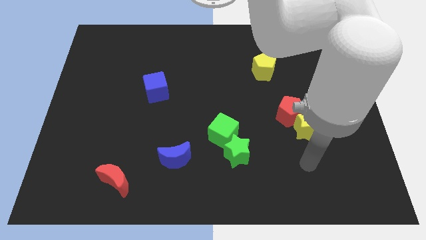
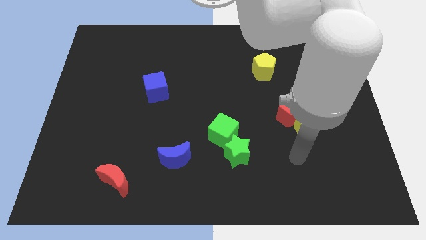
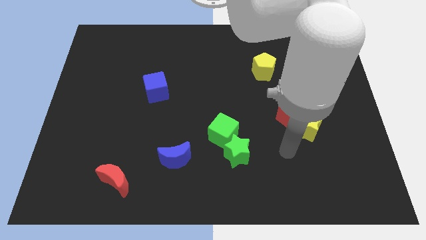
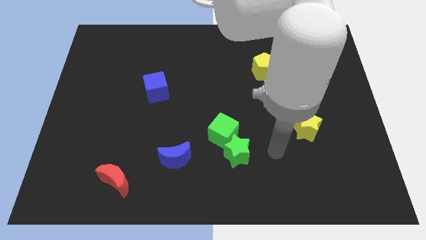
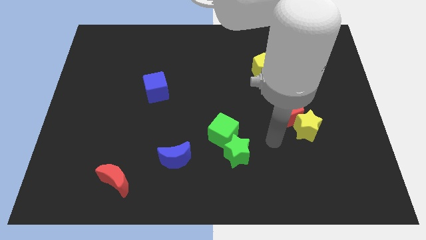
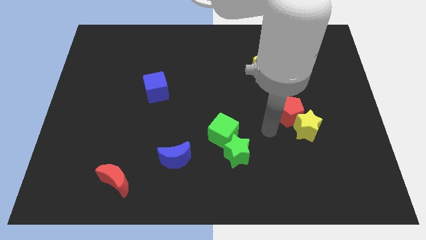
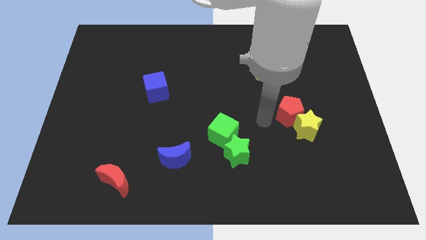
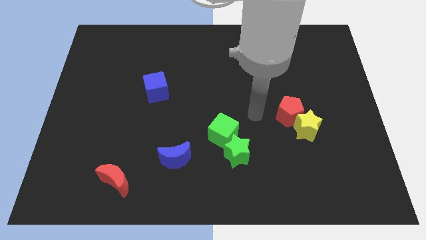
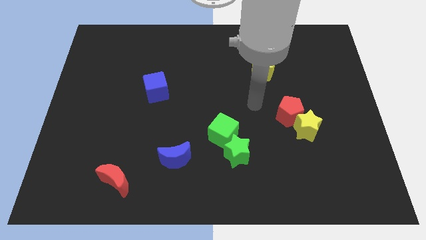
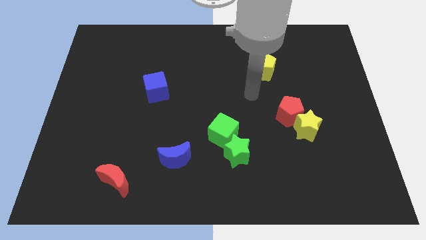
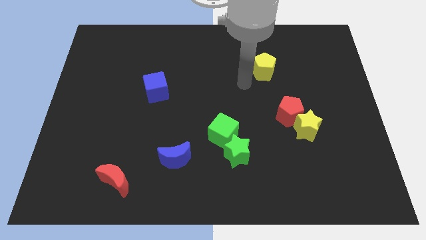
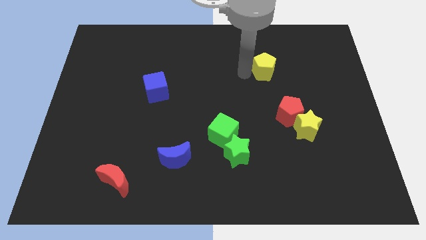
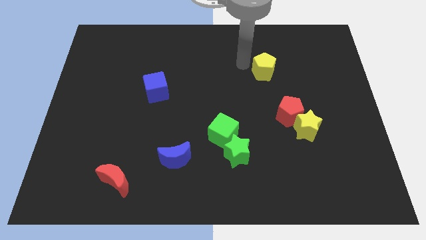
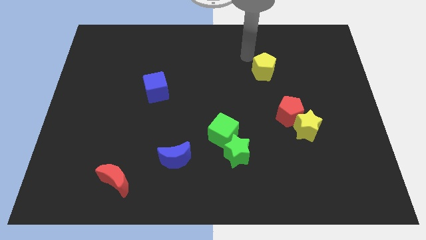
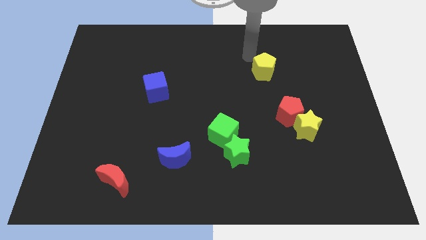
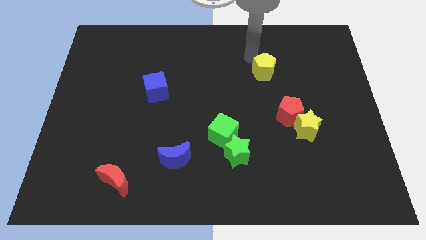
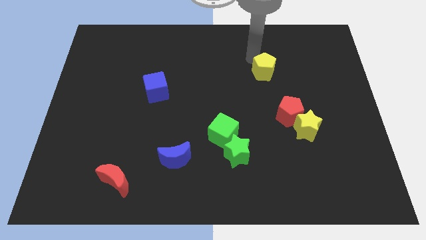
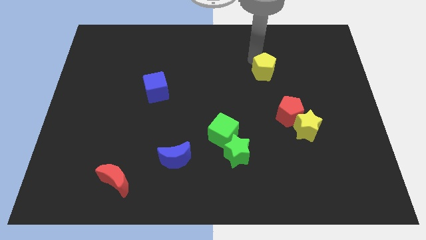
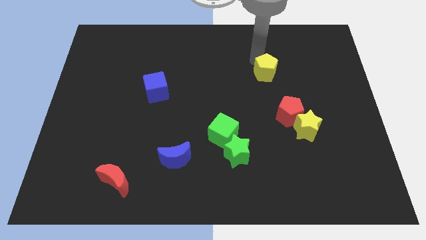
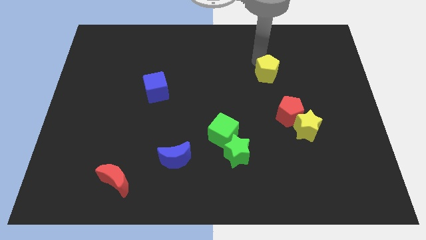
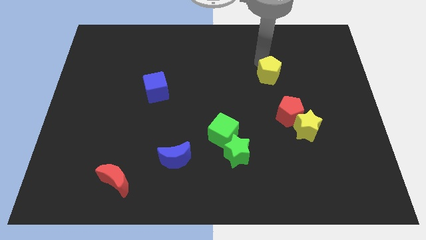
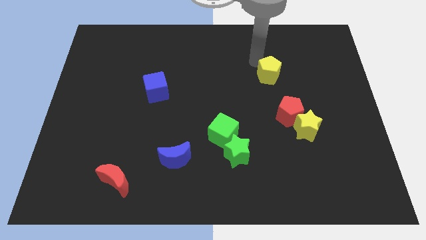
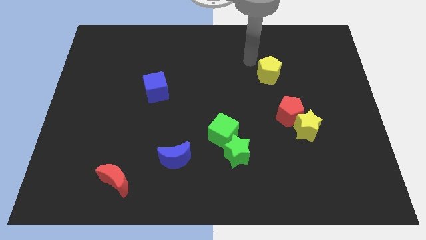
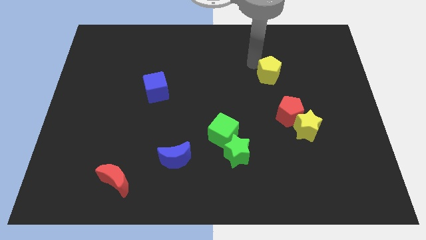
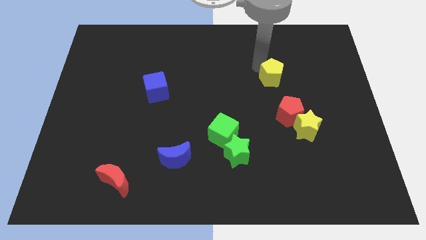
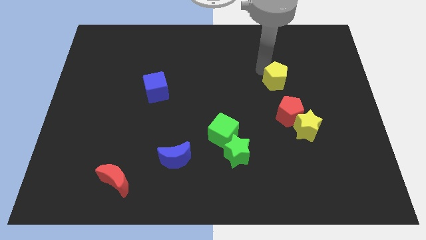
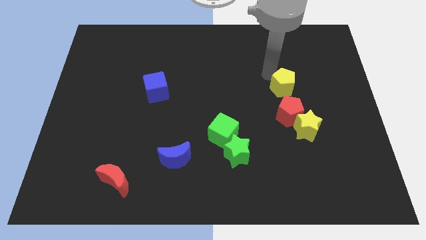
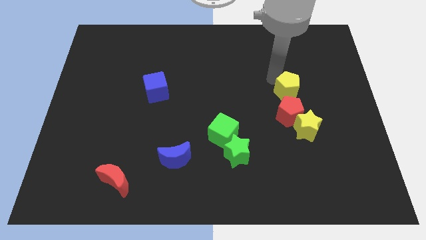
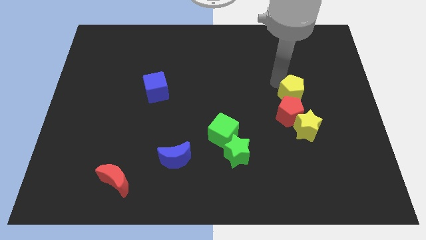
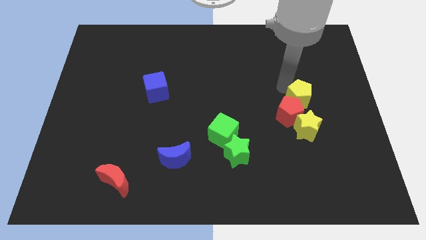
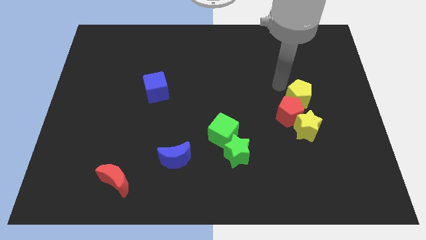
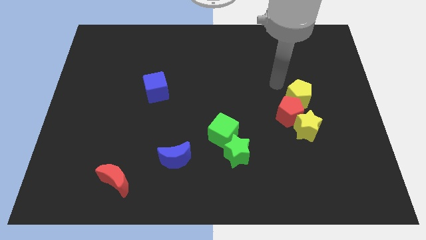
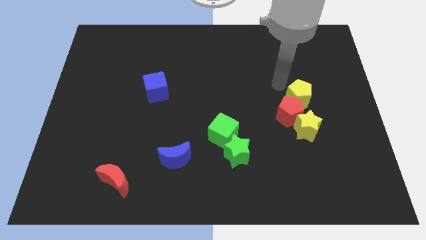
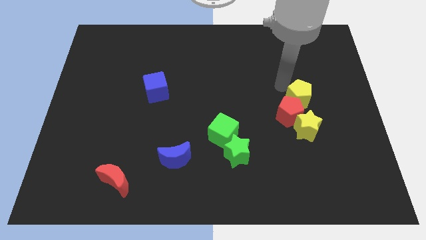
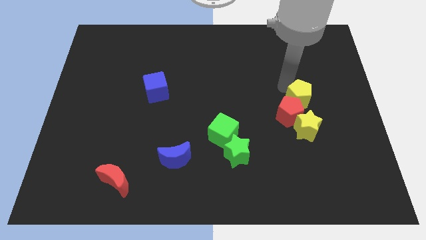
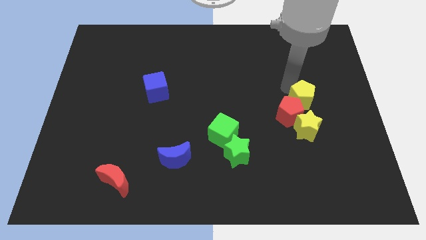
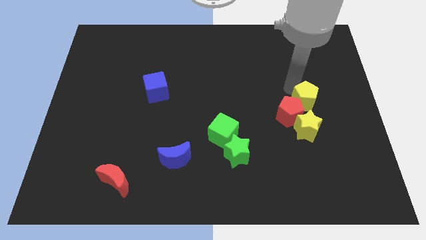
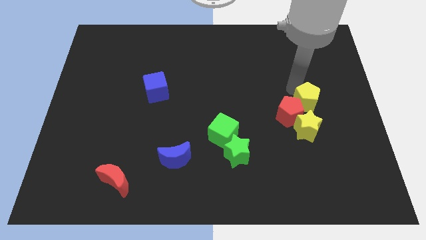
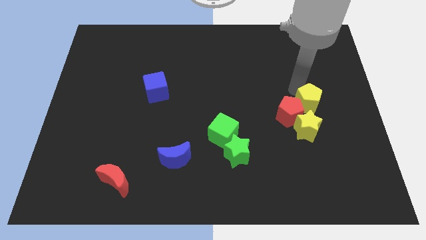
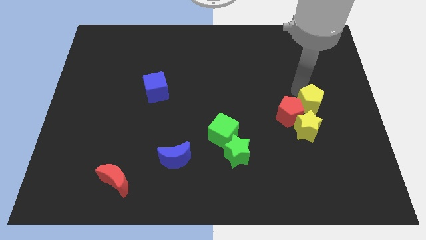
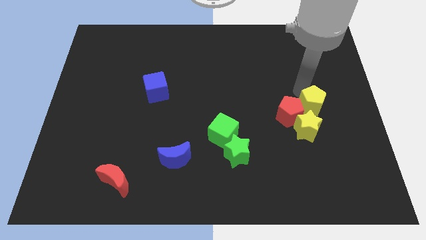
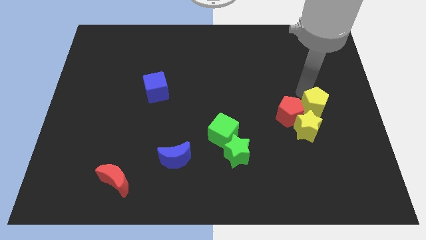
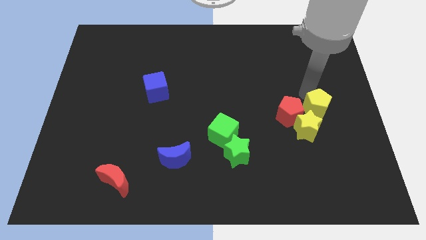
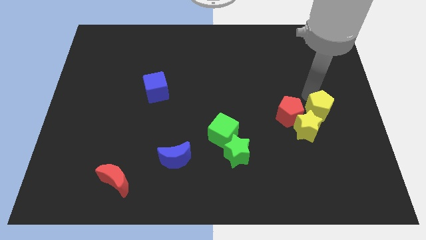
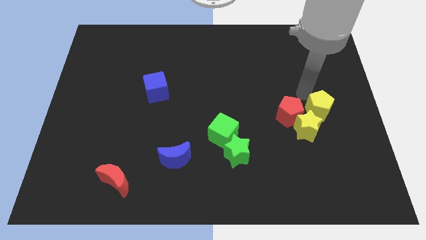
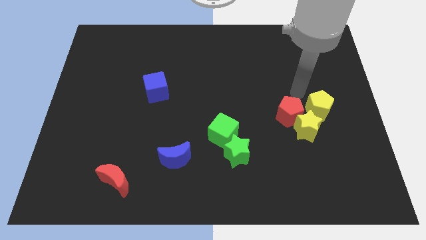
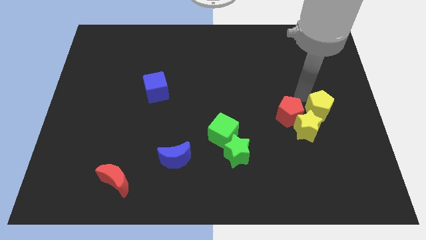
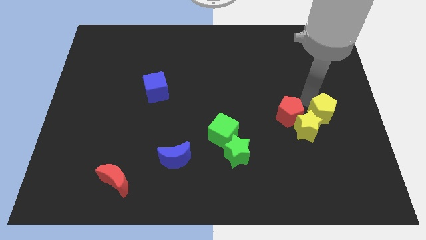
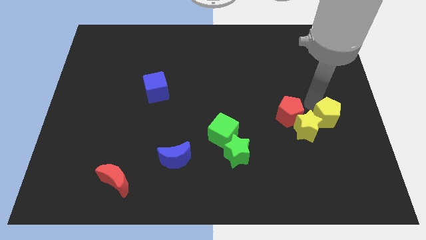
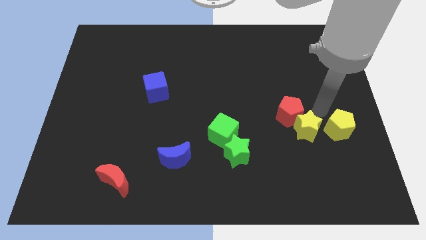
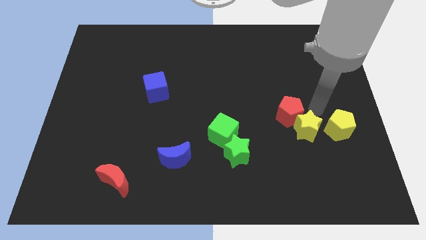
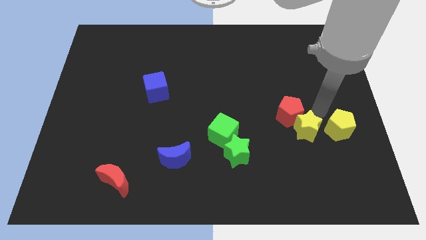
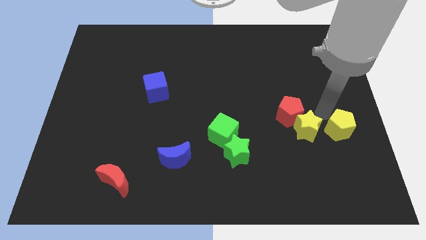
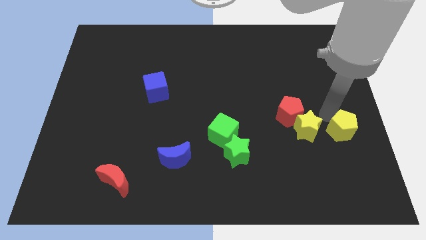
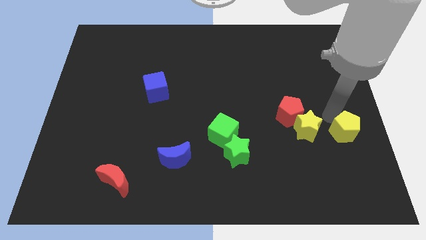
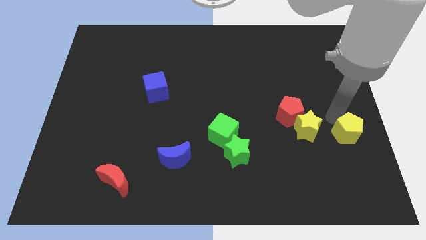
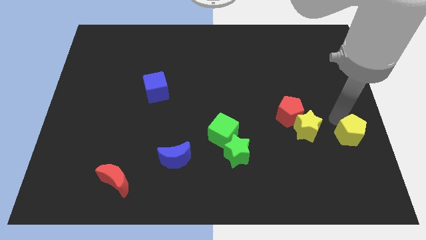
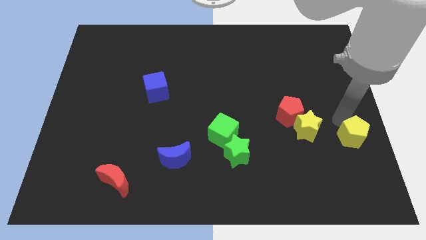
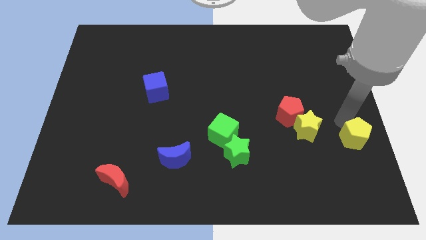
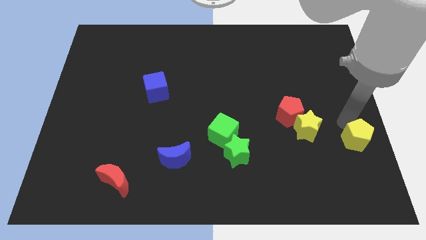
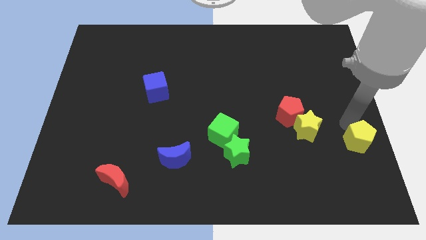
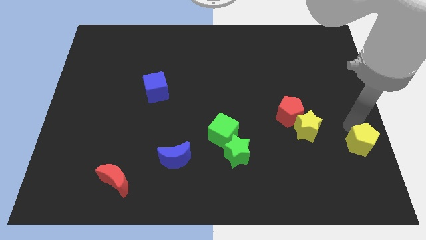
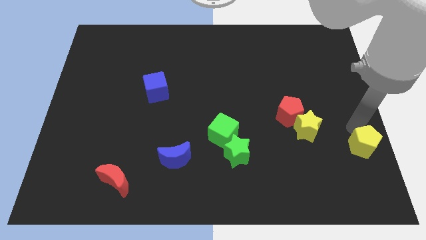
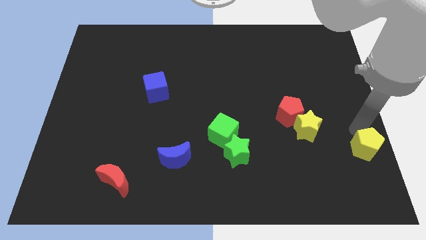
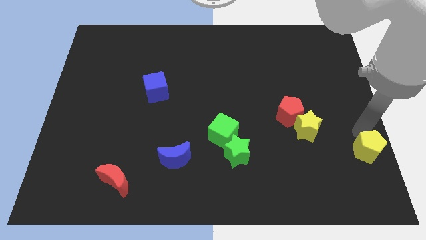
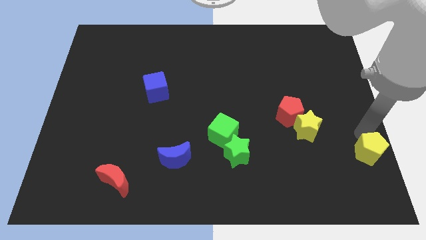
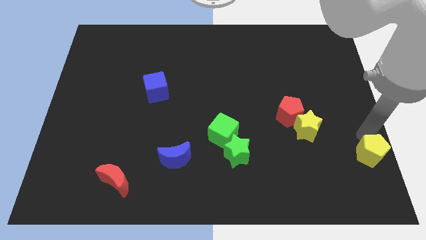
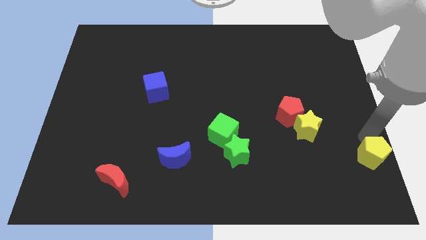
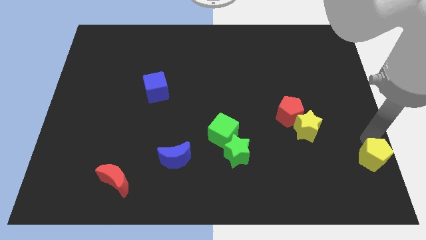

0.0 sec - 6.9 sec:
push the yellow pentagon to the bottom right
